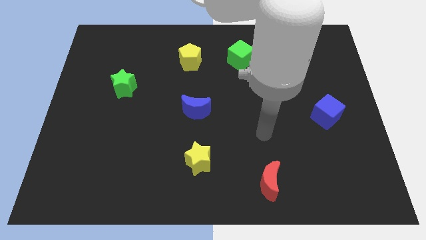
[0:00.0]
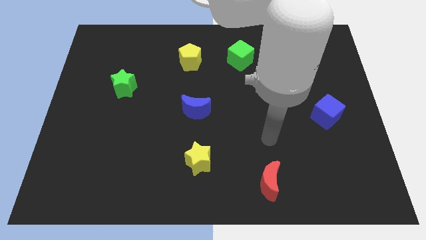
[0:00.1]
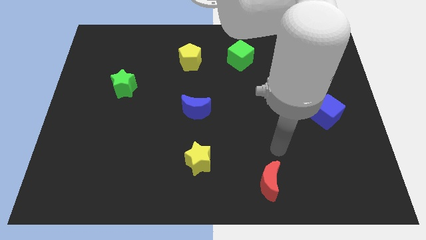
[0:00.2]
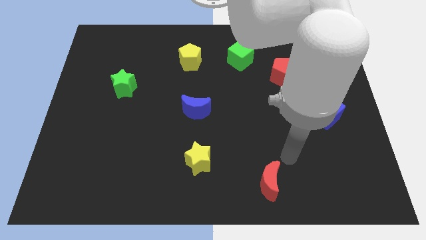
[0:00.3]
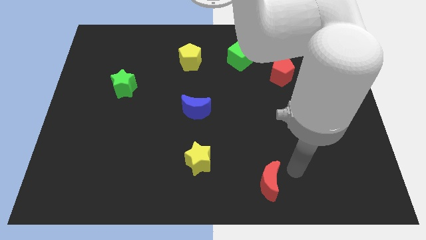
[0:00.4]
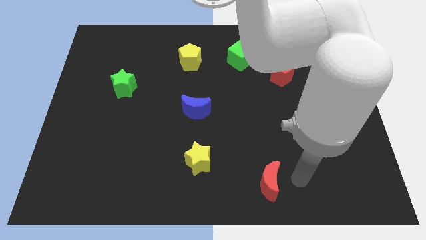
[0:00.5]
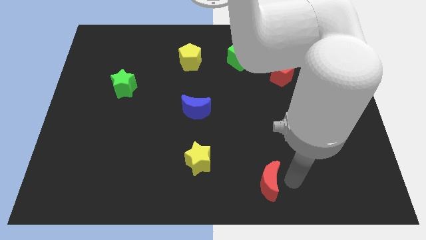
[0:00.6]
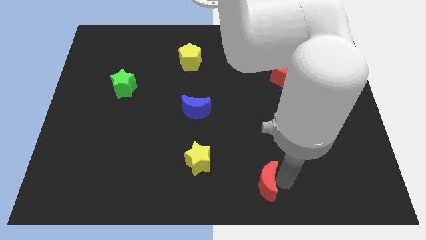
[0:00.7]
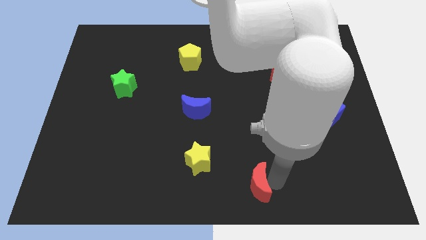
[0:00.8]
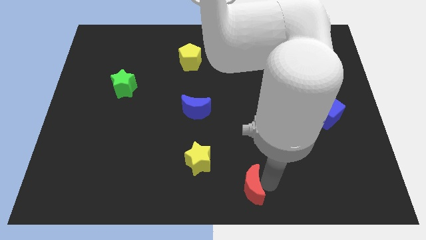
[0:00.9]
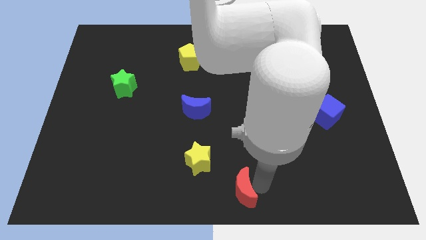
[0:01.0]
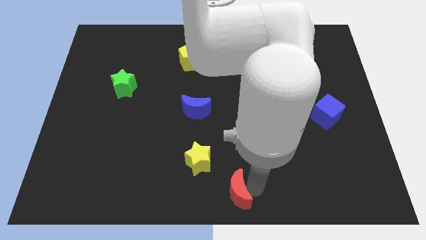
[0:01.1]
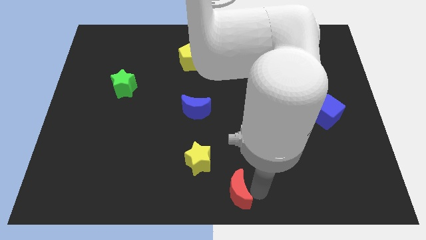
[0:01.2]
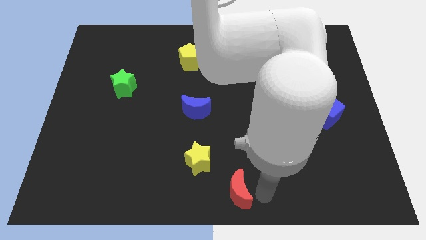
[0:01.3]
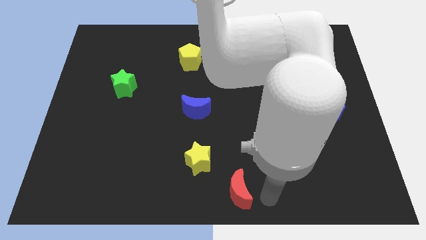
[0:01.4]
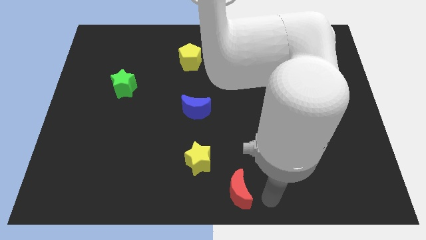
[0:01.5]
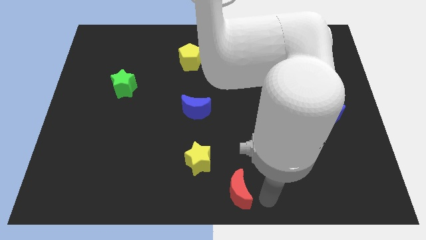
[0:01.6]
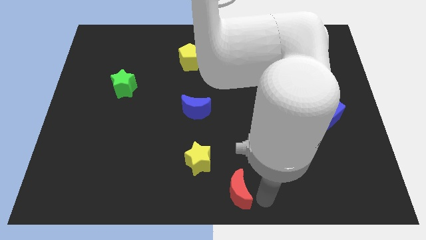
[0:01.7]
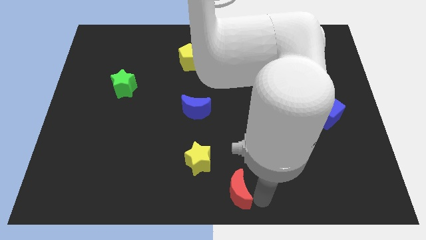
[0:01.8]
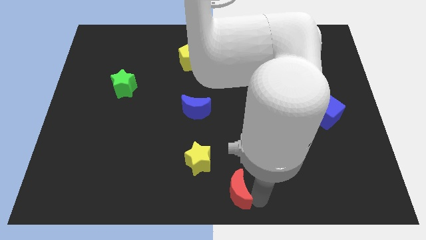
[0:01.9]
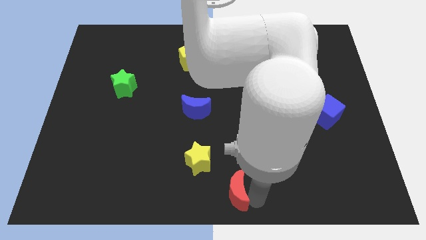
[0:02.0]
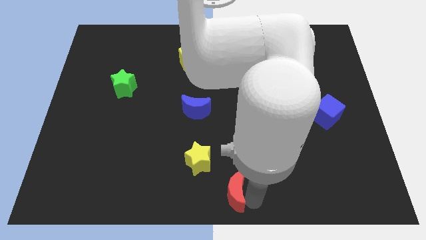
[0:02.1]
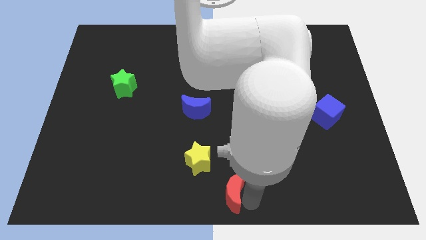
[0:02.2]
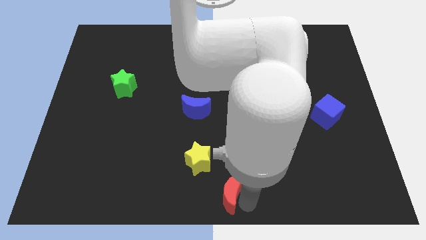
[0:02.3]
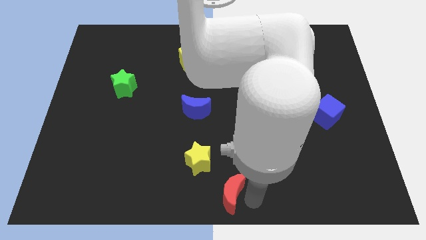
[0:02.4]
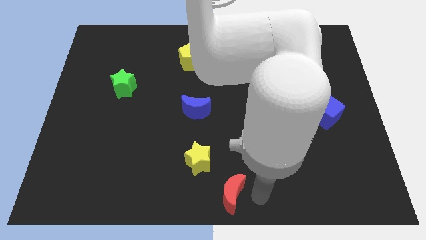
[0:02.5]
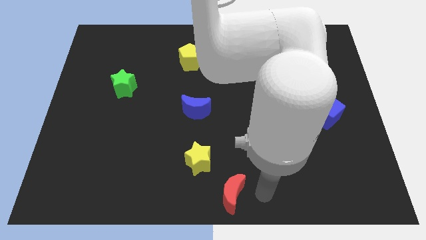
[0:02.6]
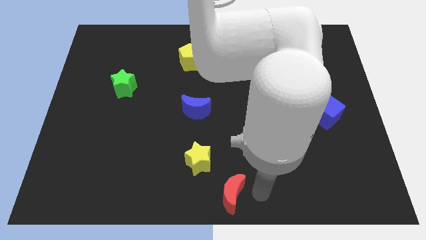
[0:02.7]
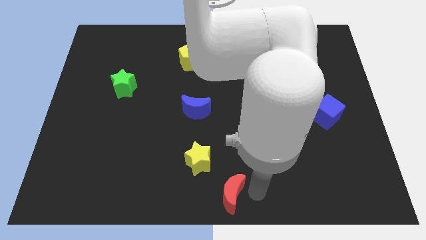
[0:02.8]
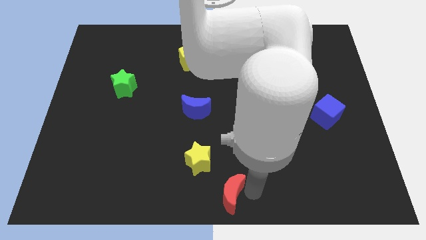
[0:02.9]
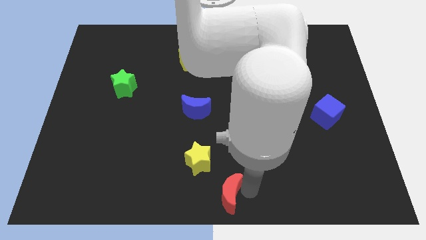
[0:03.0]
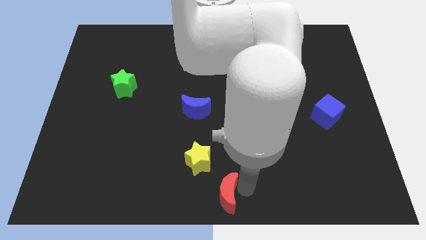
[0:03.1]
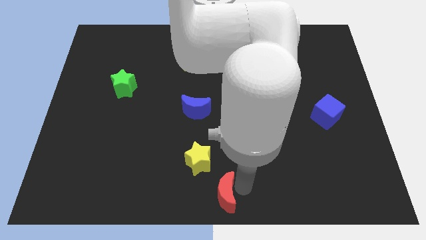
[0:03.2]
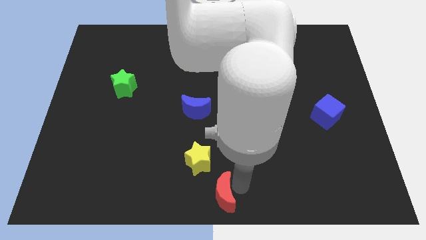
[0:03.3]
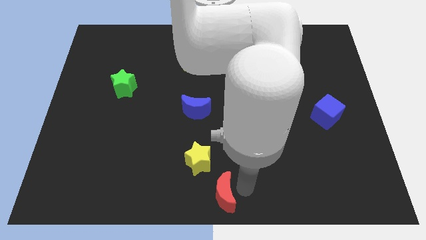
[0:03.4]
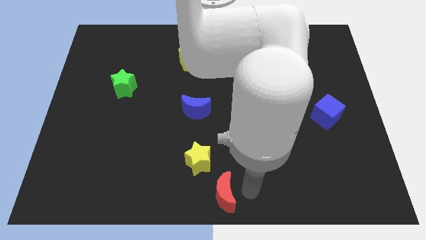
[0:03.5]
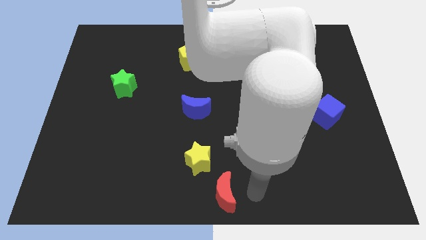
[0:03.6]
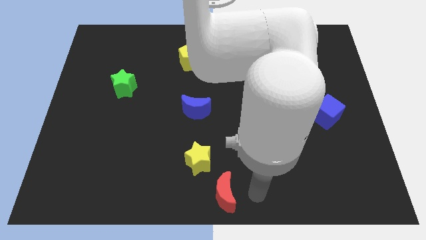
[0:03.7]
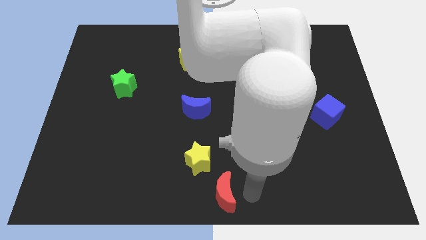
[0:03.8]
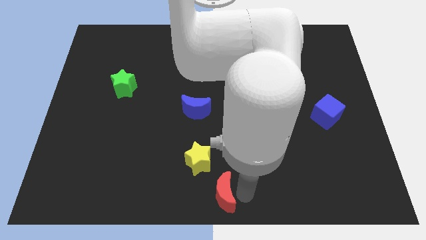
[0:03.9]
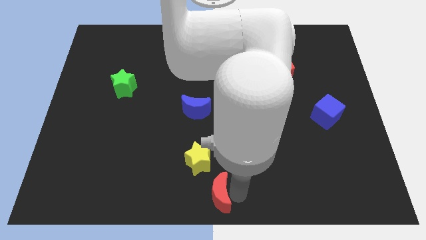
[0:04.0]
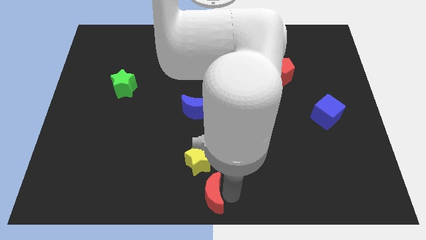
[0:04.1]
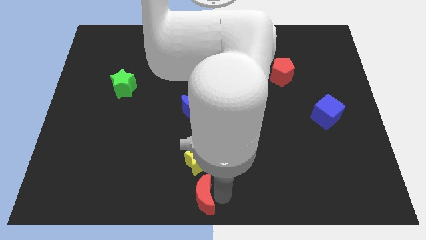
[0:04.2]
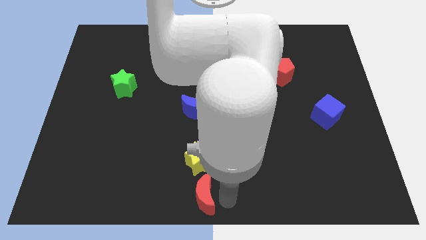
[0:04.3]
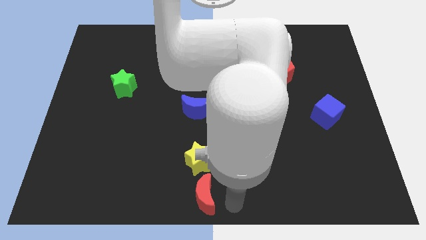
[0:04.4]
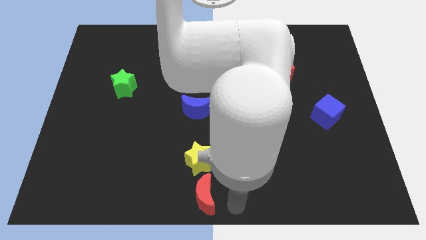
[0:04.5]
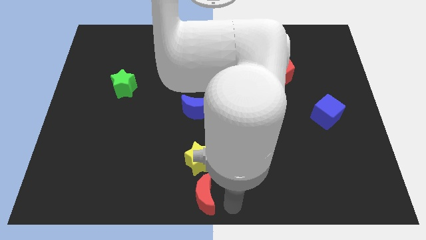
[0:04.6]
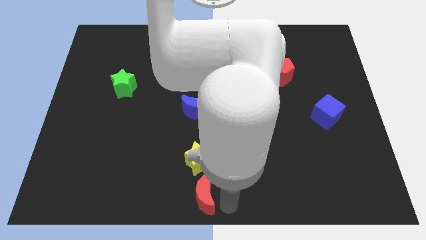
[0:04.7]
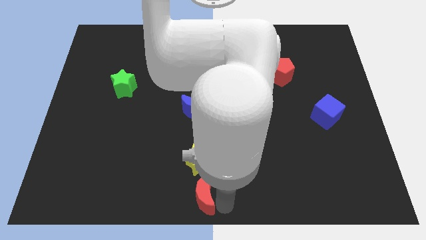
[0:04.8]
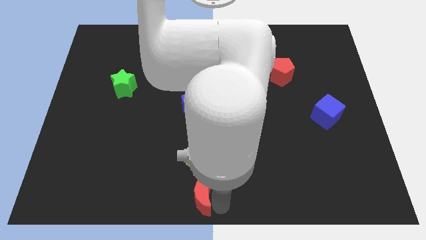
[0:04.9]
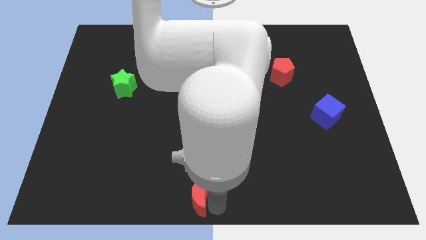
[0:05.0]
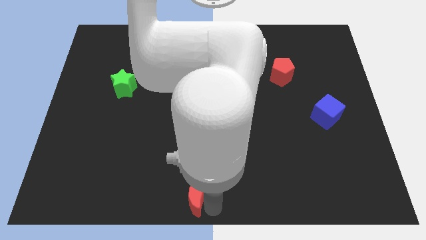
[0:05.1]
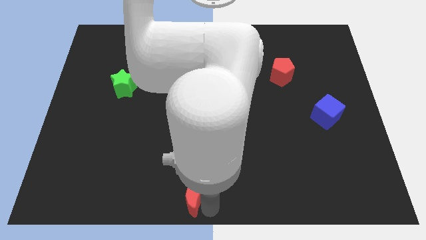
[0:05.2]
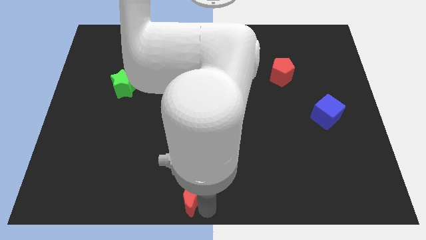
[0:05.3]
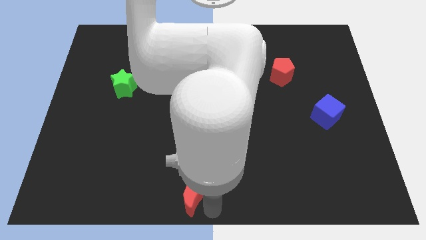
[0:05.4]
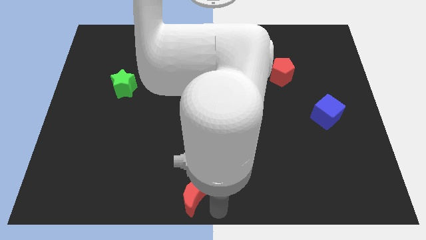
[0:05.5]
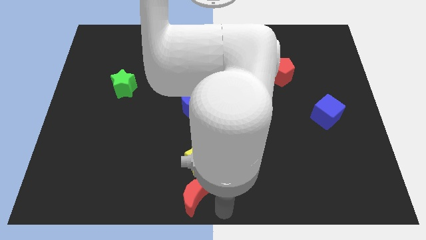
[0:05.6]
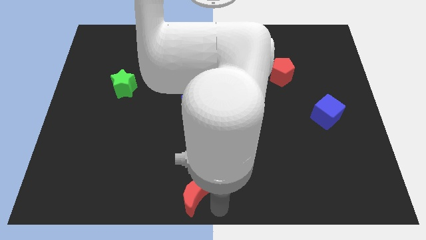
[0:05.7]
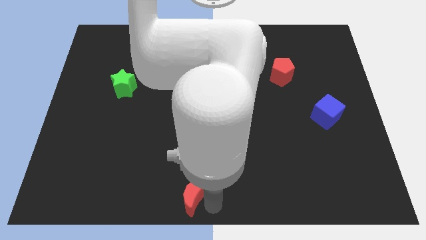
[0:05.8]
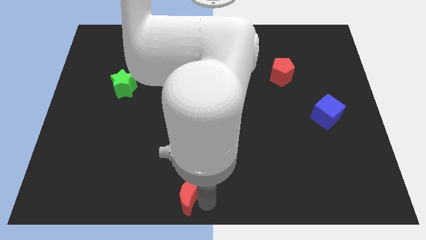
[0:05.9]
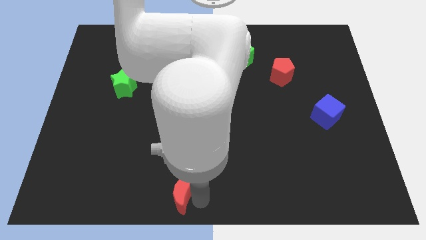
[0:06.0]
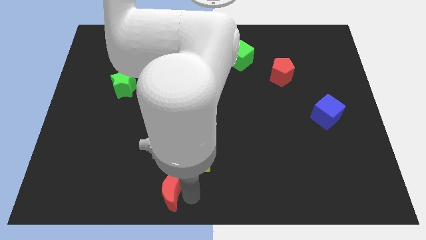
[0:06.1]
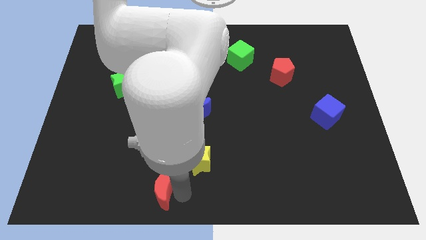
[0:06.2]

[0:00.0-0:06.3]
slide the red moon to the left

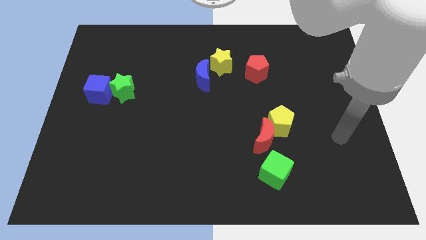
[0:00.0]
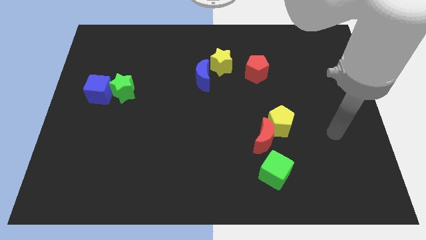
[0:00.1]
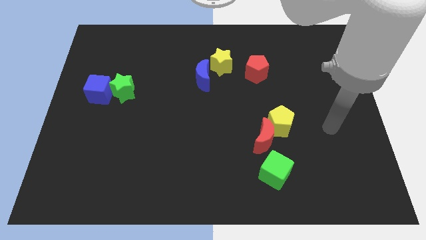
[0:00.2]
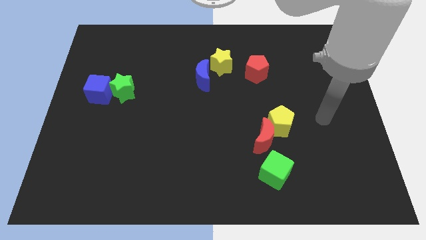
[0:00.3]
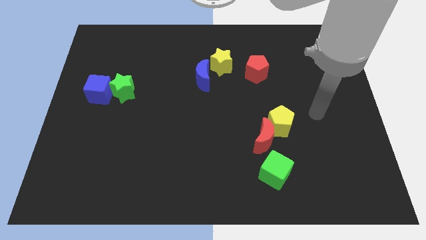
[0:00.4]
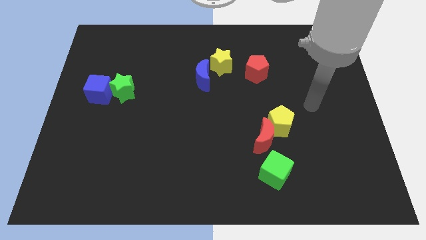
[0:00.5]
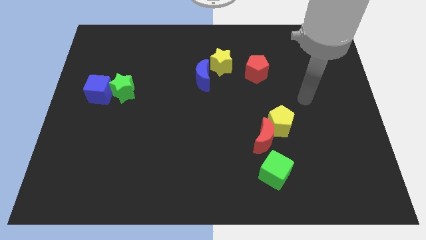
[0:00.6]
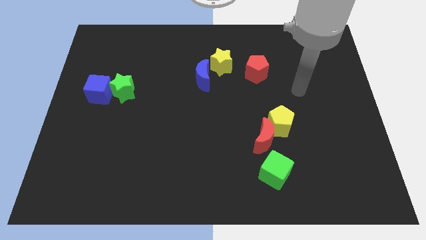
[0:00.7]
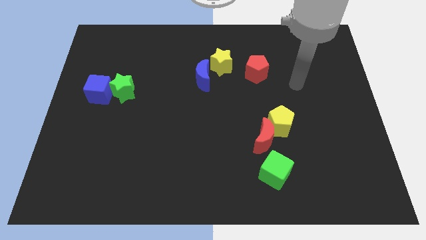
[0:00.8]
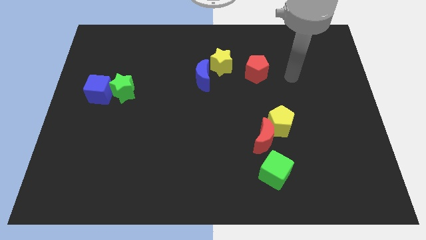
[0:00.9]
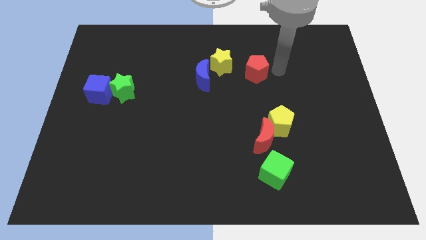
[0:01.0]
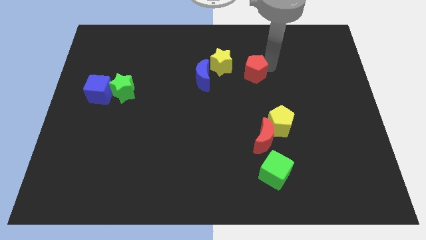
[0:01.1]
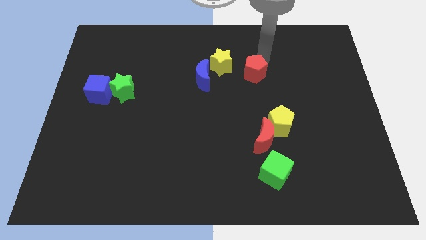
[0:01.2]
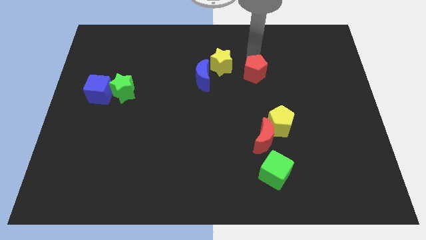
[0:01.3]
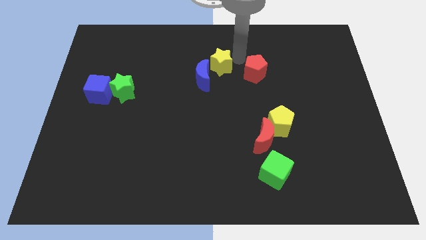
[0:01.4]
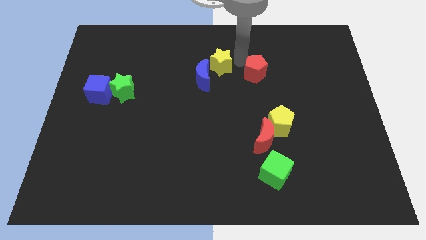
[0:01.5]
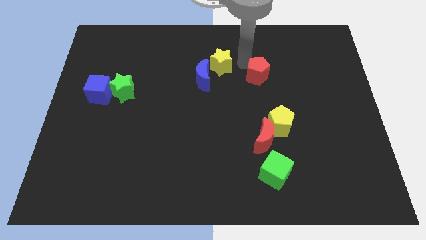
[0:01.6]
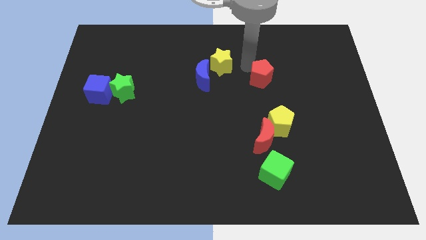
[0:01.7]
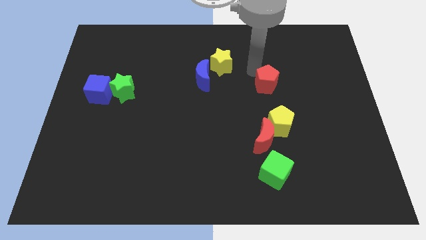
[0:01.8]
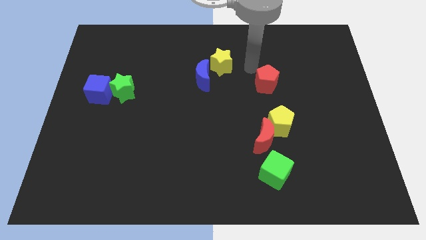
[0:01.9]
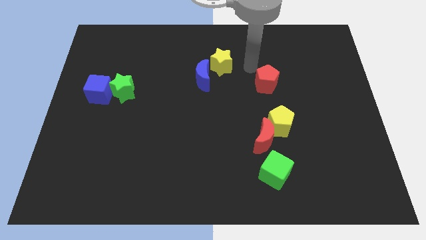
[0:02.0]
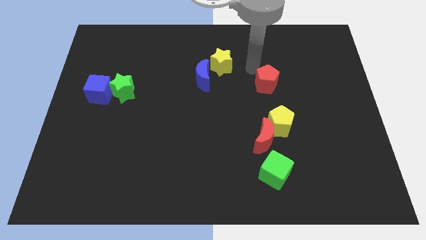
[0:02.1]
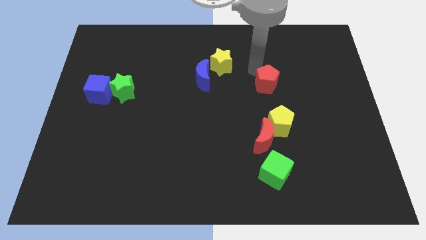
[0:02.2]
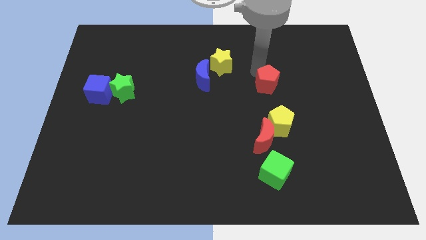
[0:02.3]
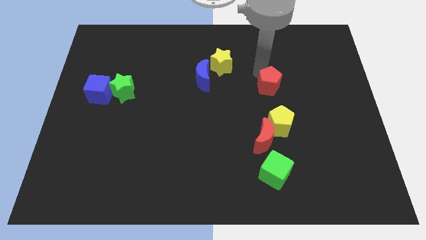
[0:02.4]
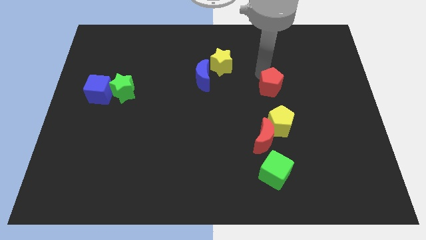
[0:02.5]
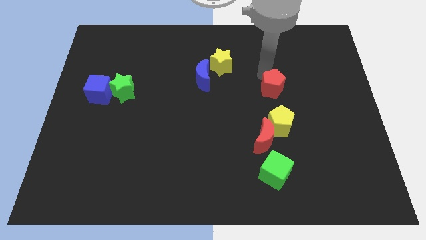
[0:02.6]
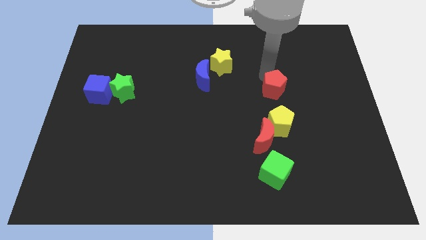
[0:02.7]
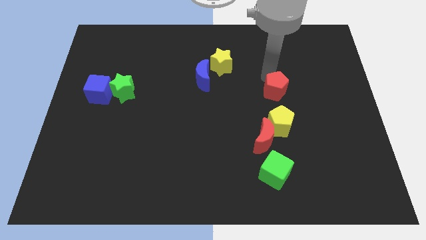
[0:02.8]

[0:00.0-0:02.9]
push the red pentagon a bit downwards and to the right
